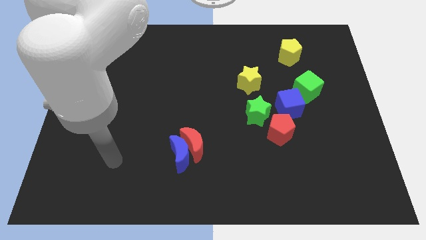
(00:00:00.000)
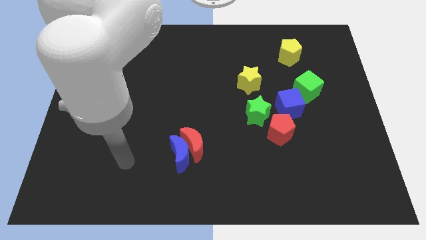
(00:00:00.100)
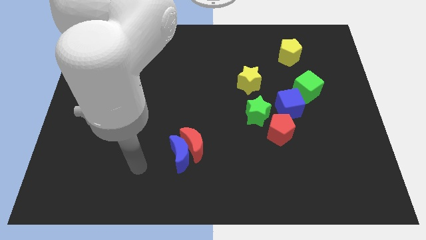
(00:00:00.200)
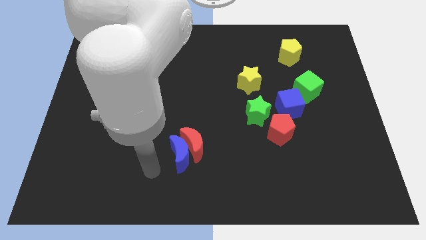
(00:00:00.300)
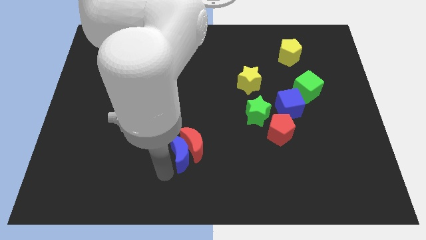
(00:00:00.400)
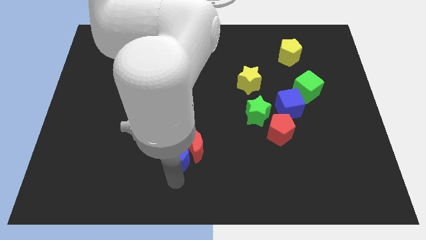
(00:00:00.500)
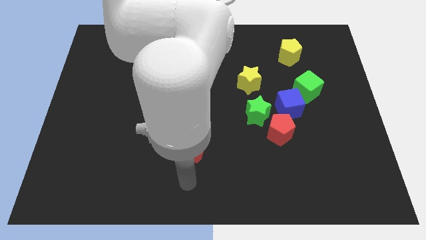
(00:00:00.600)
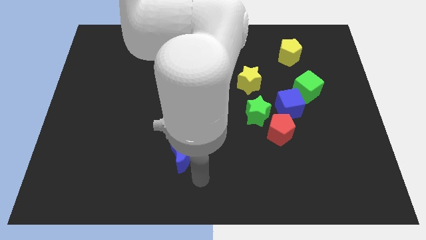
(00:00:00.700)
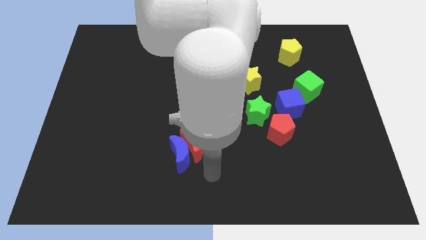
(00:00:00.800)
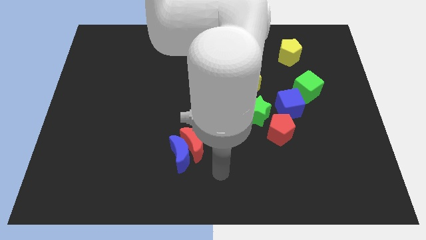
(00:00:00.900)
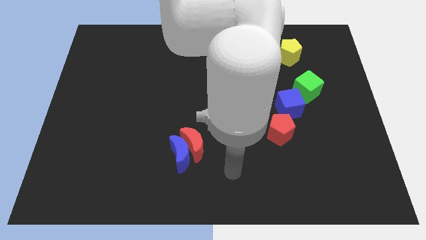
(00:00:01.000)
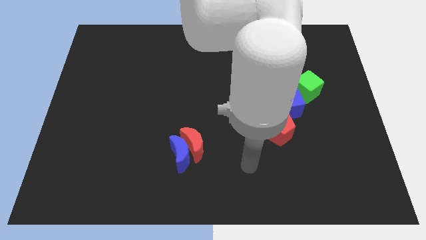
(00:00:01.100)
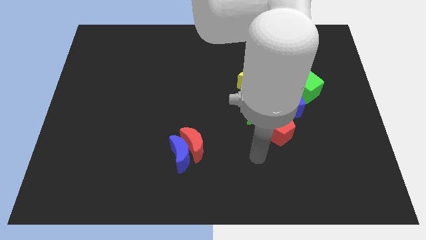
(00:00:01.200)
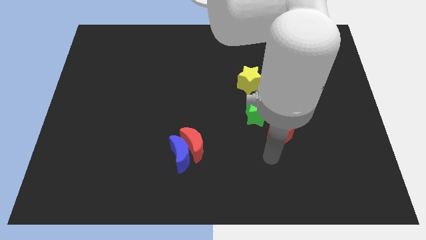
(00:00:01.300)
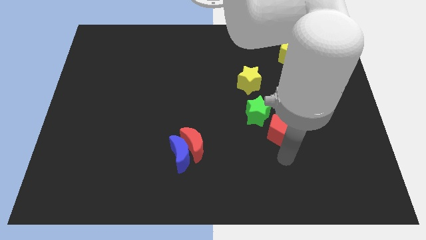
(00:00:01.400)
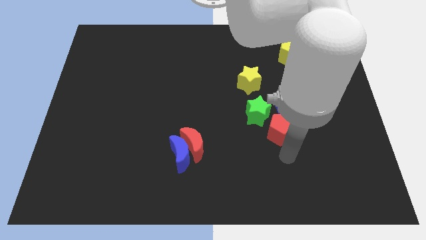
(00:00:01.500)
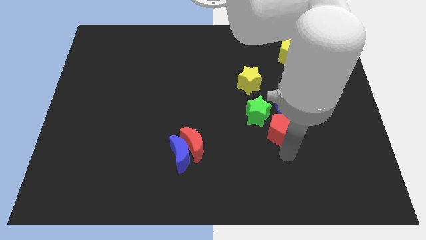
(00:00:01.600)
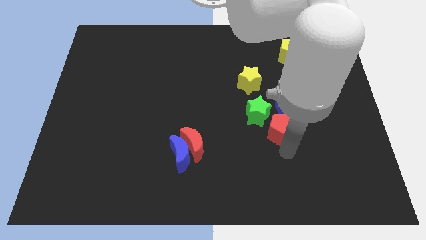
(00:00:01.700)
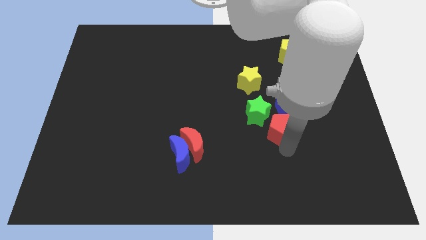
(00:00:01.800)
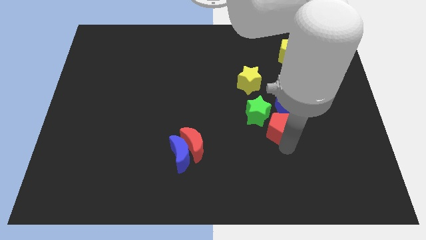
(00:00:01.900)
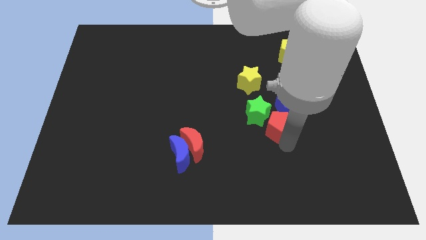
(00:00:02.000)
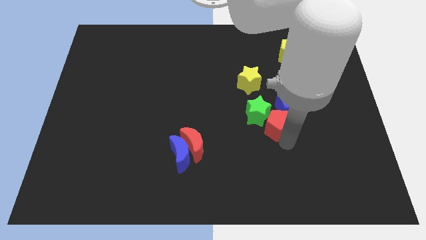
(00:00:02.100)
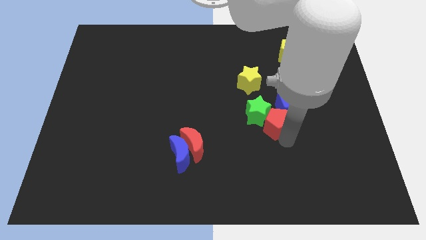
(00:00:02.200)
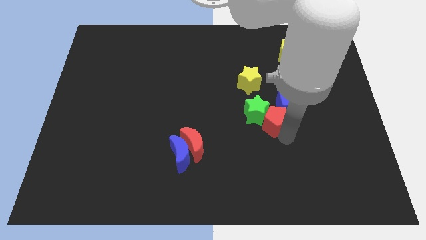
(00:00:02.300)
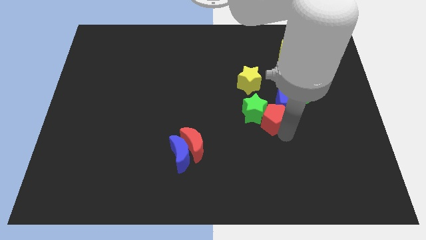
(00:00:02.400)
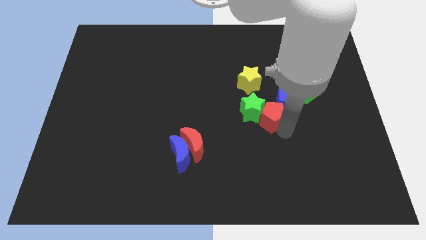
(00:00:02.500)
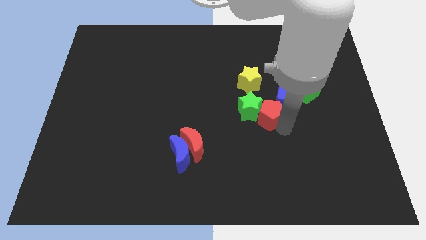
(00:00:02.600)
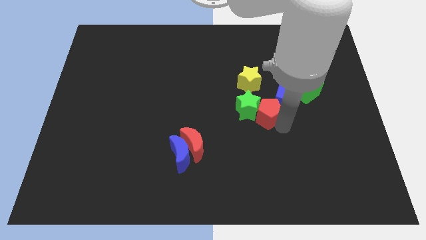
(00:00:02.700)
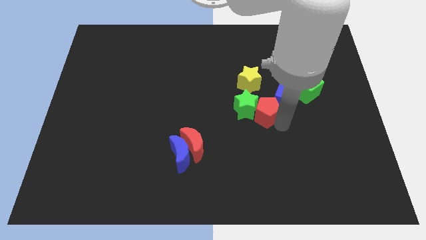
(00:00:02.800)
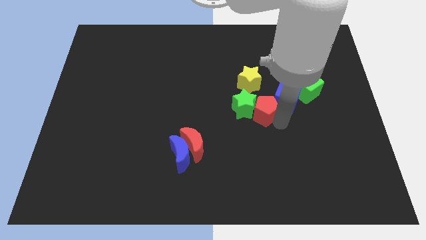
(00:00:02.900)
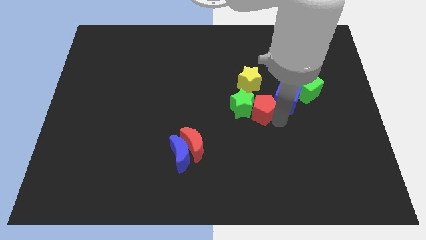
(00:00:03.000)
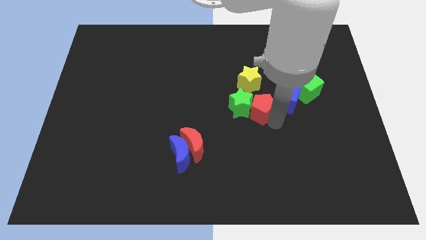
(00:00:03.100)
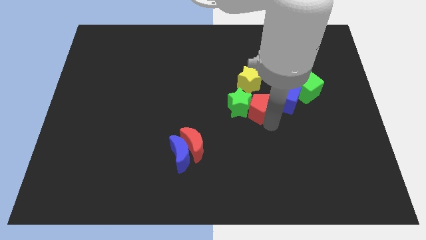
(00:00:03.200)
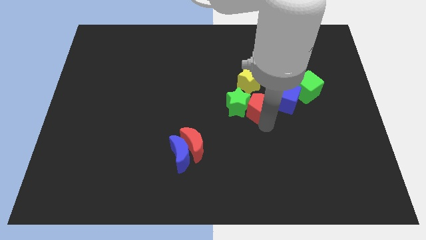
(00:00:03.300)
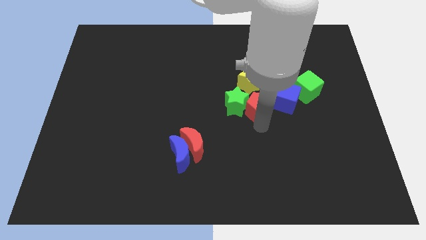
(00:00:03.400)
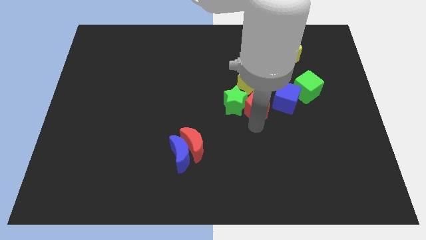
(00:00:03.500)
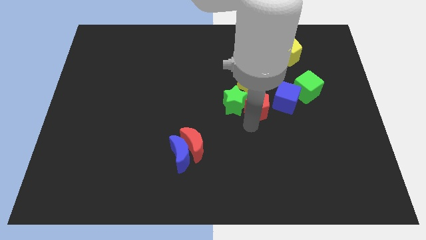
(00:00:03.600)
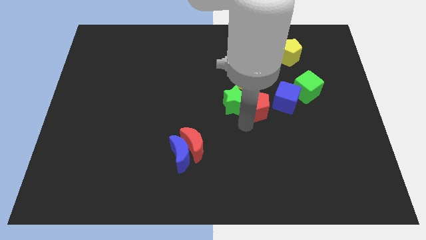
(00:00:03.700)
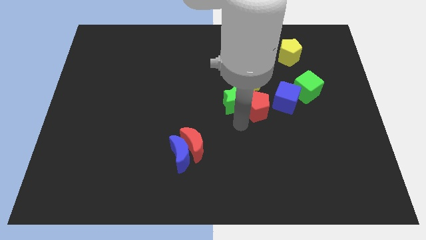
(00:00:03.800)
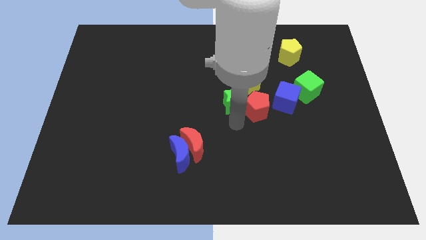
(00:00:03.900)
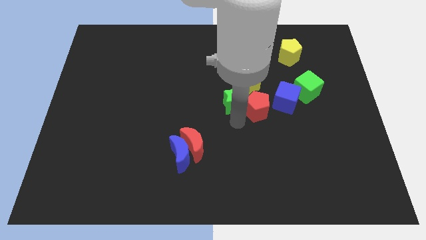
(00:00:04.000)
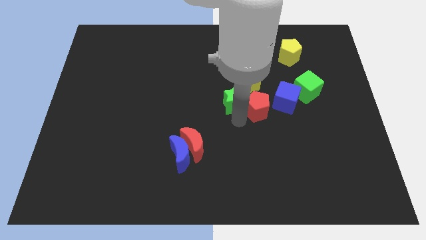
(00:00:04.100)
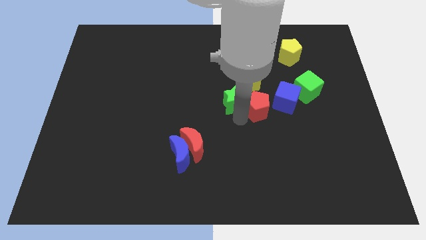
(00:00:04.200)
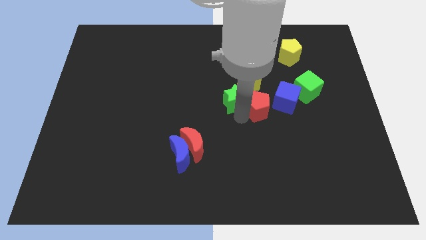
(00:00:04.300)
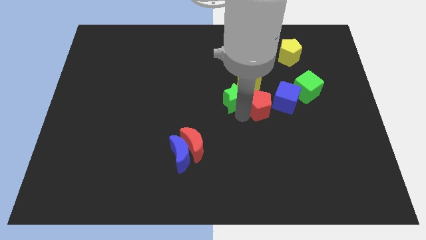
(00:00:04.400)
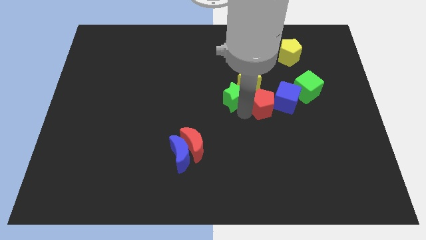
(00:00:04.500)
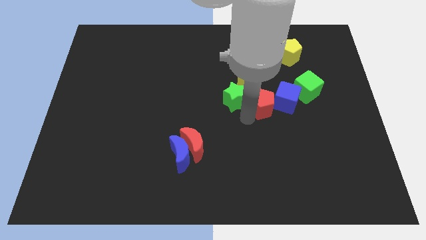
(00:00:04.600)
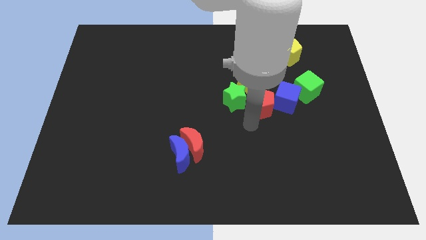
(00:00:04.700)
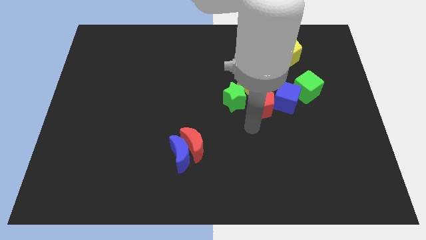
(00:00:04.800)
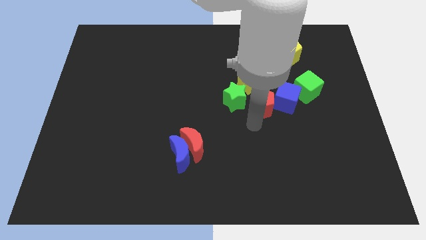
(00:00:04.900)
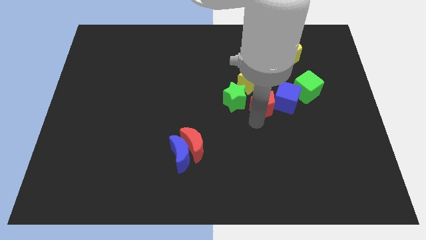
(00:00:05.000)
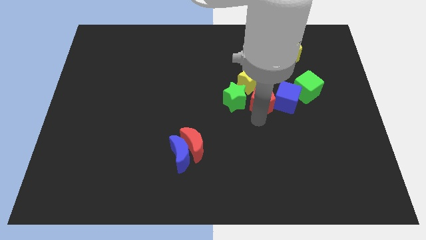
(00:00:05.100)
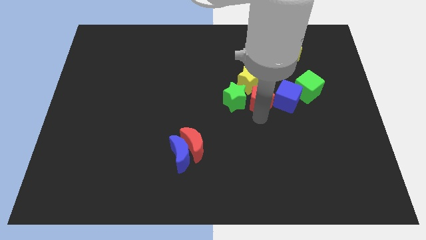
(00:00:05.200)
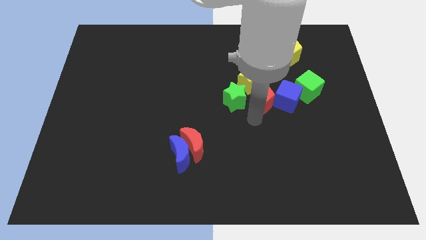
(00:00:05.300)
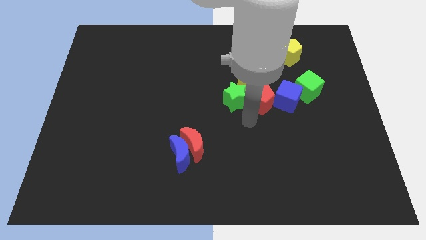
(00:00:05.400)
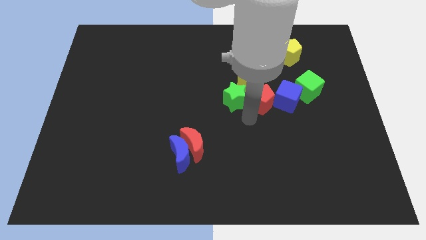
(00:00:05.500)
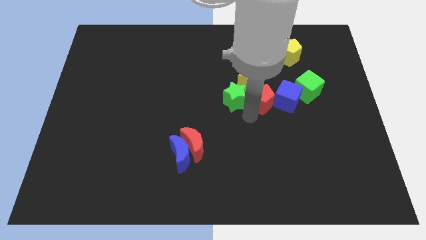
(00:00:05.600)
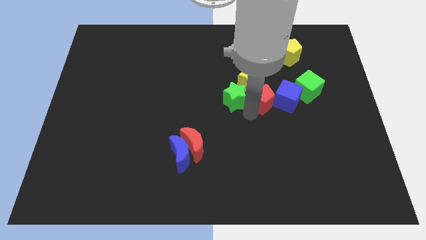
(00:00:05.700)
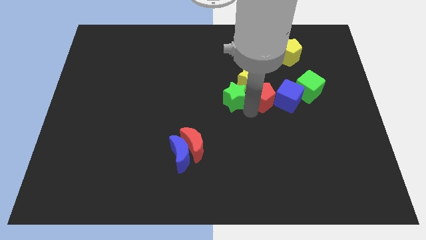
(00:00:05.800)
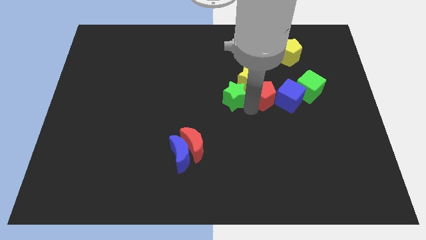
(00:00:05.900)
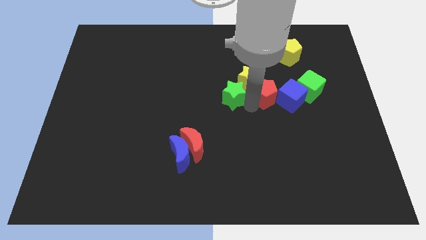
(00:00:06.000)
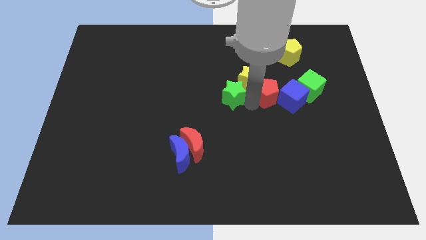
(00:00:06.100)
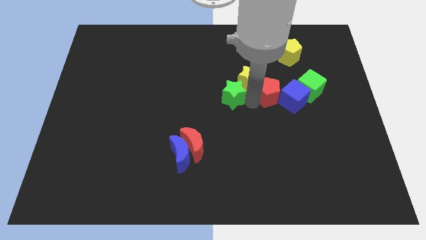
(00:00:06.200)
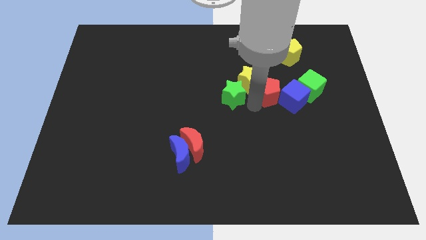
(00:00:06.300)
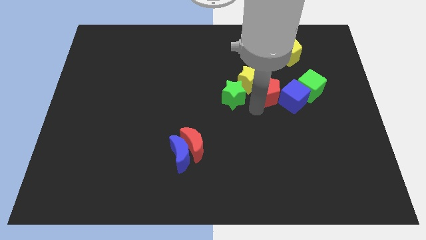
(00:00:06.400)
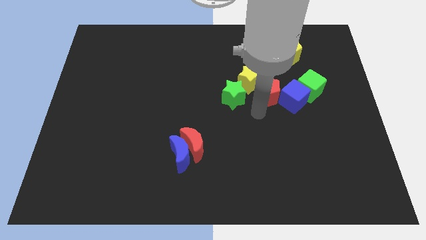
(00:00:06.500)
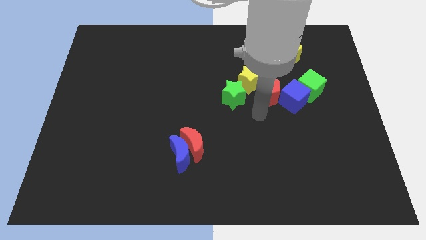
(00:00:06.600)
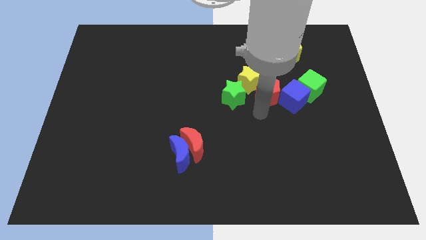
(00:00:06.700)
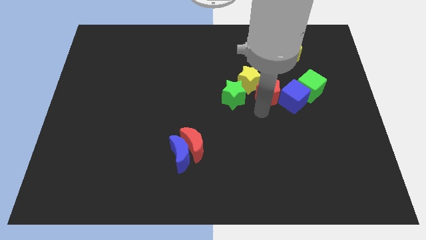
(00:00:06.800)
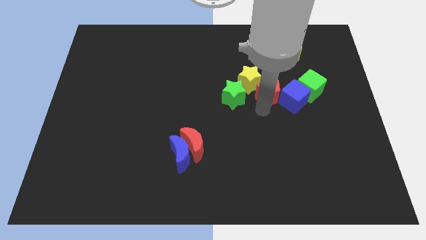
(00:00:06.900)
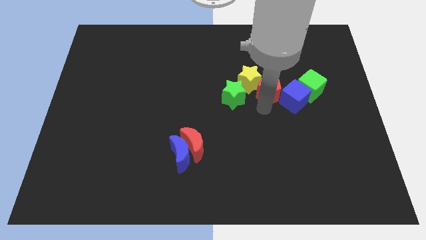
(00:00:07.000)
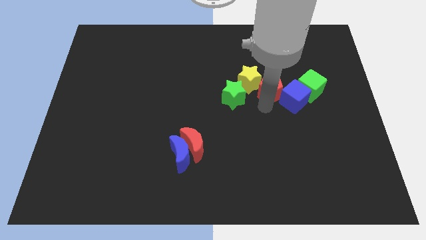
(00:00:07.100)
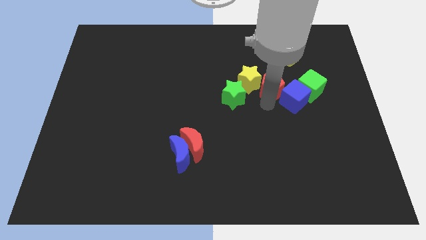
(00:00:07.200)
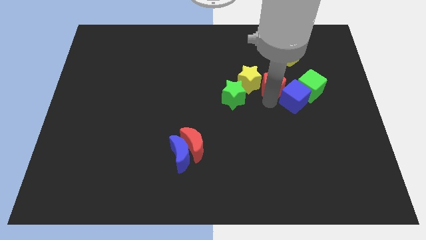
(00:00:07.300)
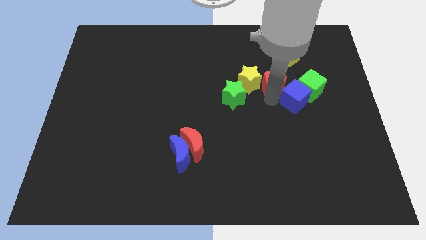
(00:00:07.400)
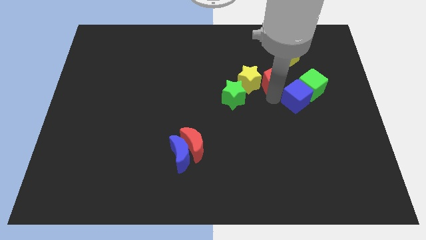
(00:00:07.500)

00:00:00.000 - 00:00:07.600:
push the red pentagon to the top right side of the yellow star
